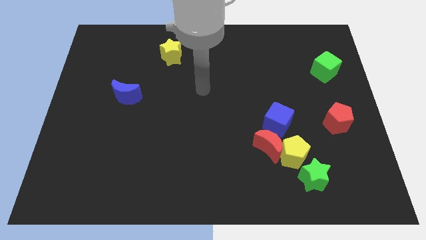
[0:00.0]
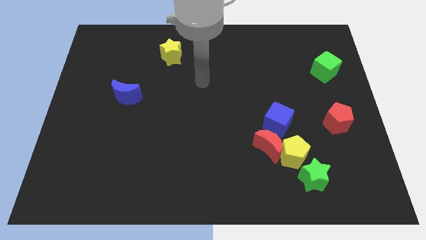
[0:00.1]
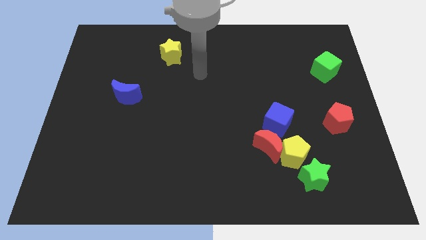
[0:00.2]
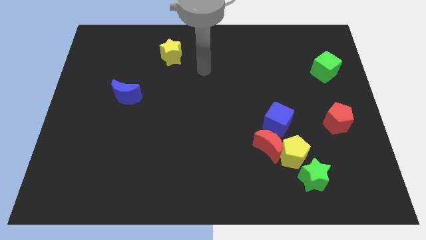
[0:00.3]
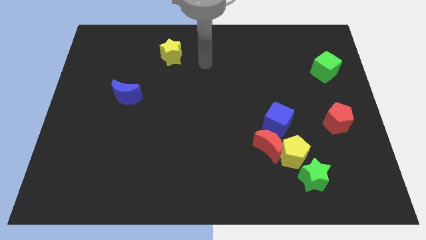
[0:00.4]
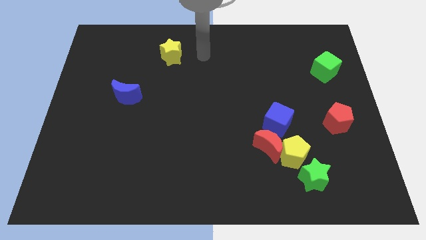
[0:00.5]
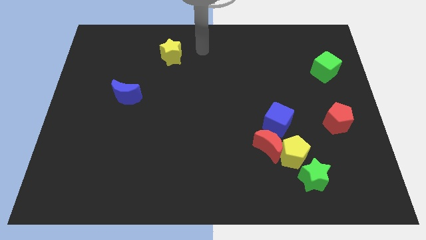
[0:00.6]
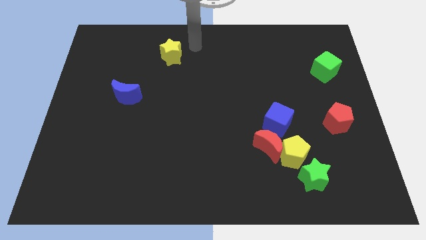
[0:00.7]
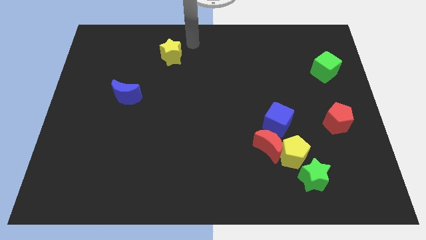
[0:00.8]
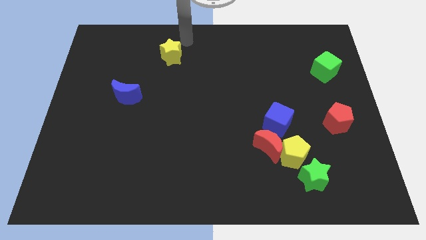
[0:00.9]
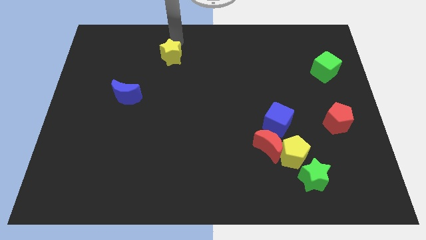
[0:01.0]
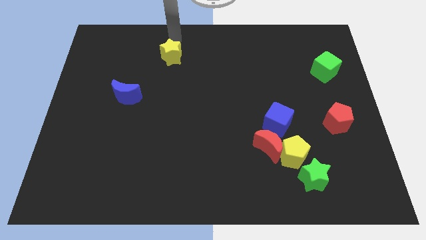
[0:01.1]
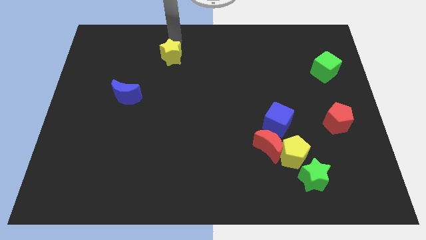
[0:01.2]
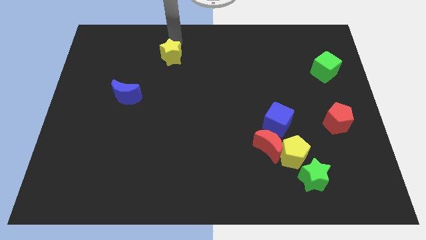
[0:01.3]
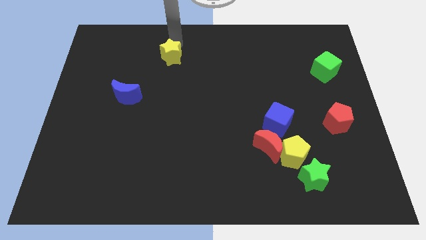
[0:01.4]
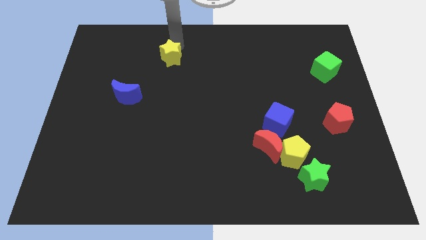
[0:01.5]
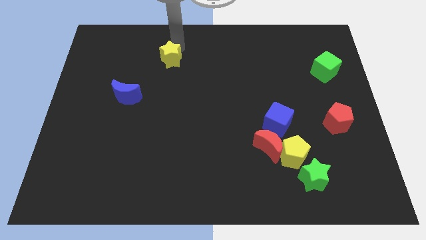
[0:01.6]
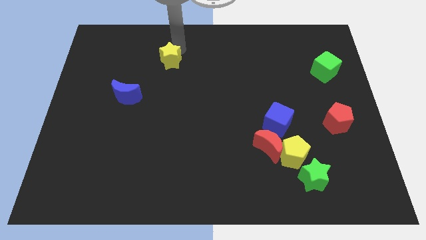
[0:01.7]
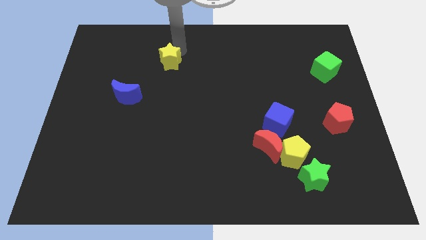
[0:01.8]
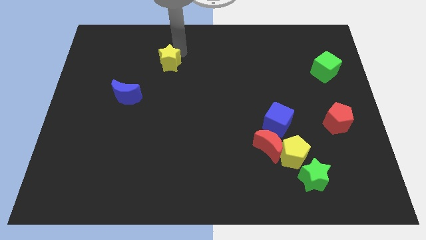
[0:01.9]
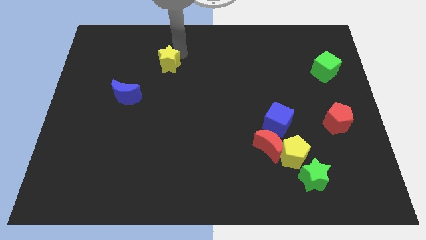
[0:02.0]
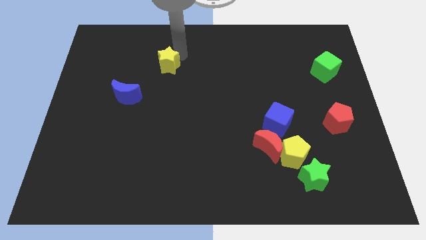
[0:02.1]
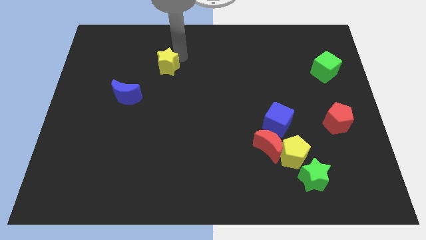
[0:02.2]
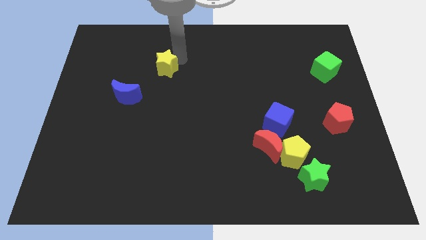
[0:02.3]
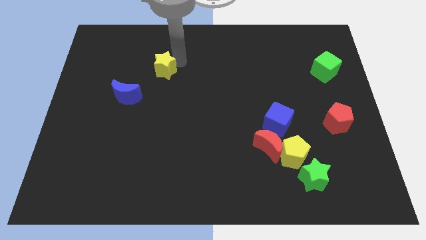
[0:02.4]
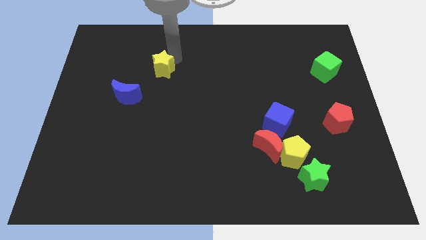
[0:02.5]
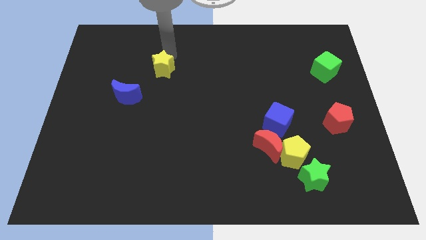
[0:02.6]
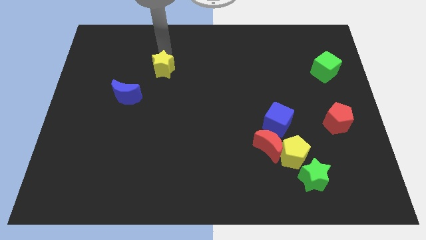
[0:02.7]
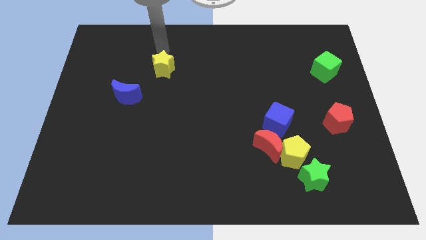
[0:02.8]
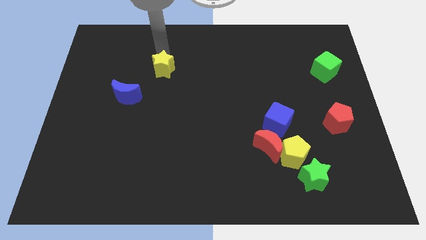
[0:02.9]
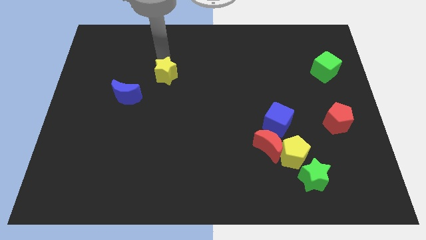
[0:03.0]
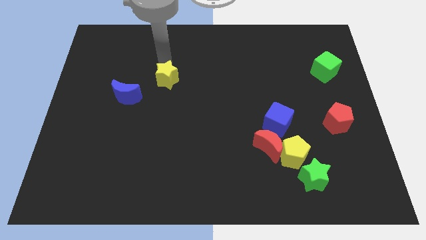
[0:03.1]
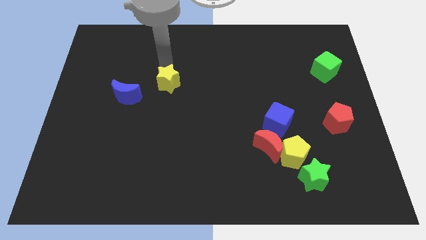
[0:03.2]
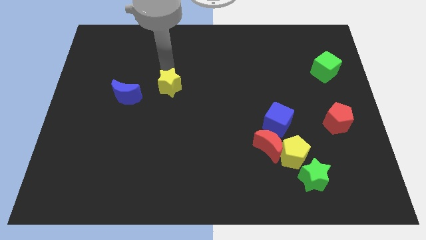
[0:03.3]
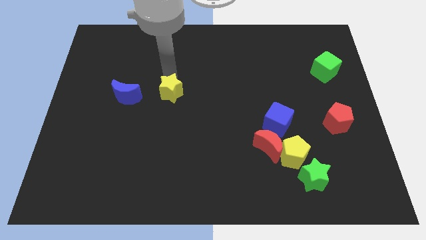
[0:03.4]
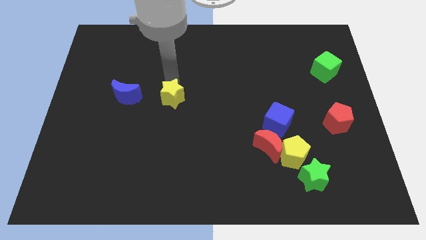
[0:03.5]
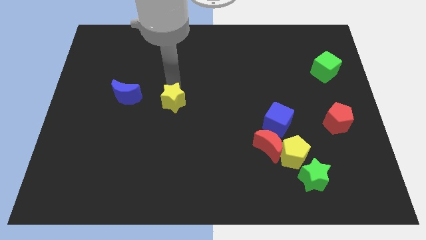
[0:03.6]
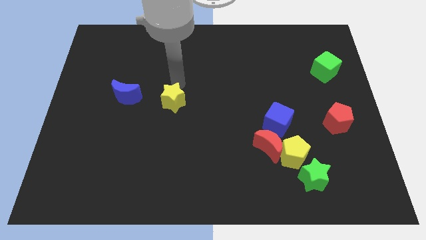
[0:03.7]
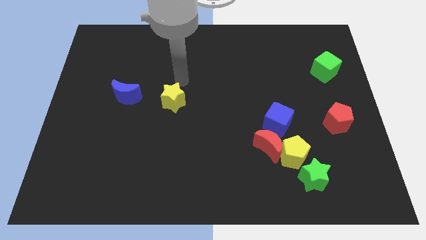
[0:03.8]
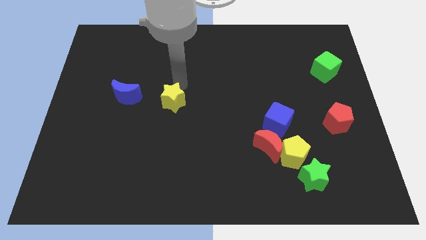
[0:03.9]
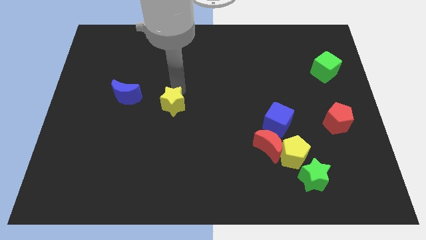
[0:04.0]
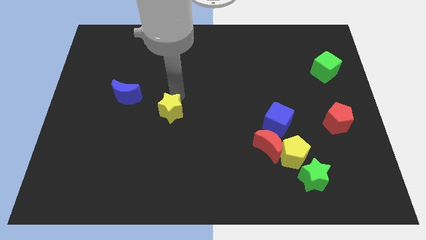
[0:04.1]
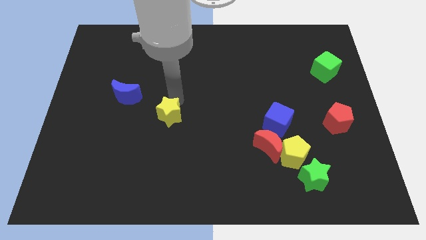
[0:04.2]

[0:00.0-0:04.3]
move the yellow star downwards

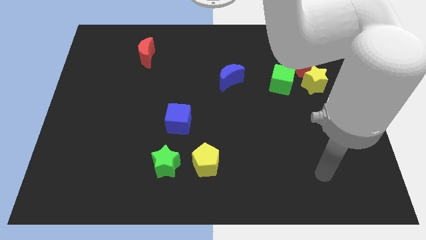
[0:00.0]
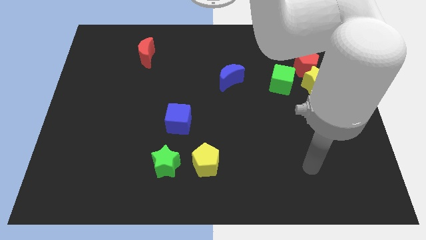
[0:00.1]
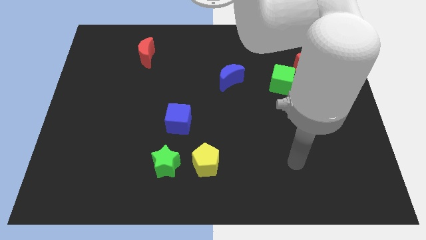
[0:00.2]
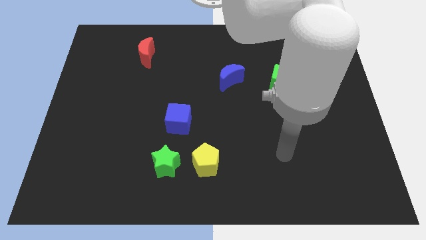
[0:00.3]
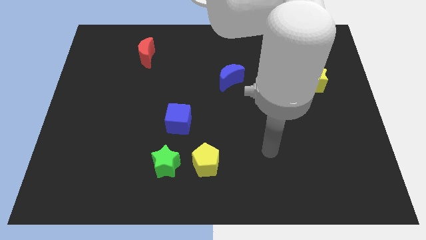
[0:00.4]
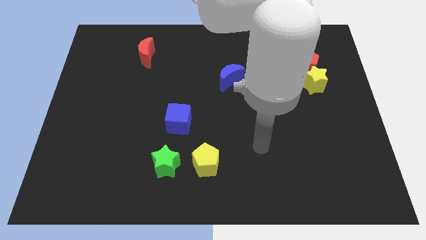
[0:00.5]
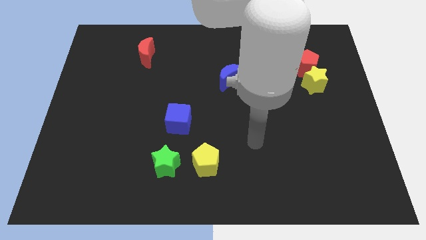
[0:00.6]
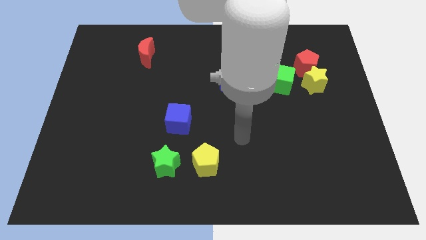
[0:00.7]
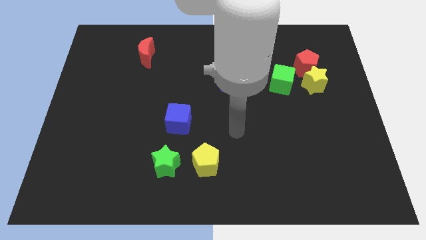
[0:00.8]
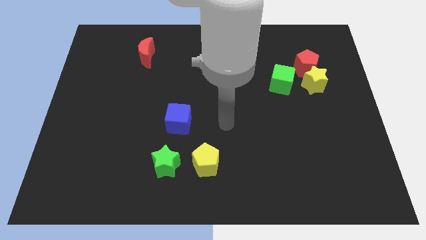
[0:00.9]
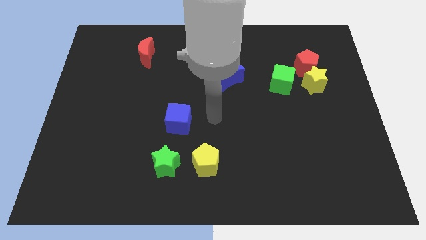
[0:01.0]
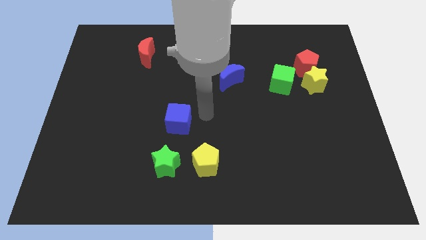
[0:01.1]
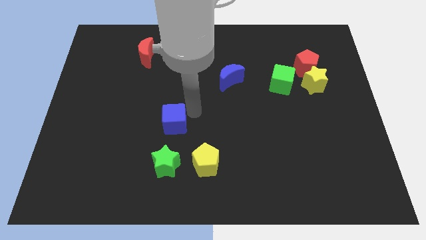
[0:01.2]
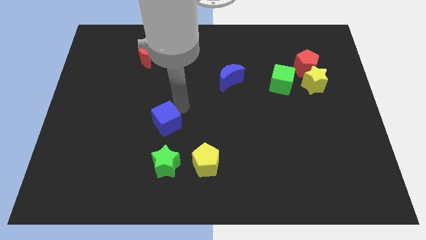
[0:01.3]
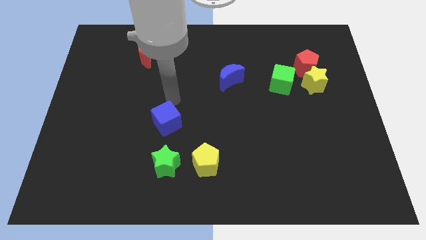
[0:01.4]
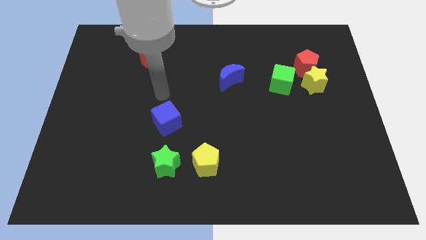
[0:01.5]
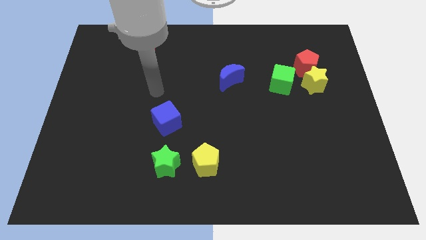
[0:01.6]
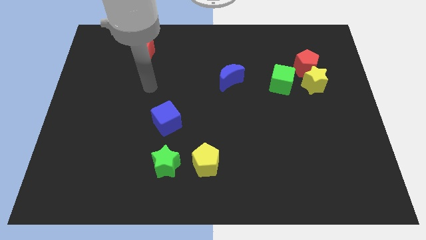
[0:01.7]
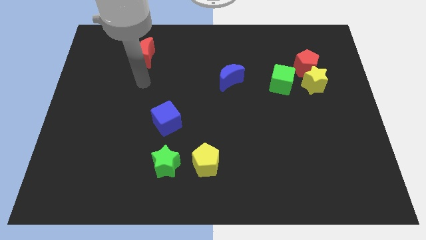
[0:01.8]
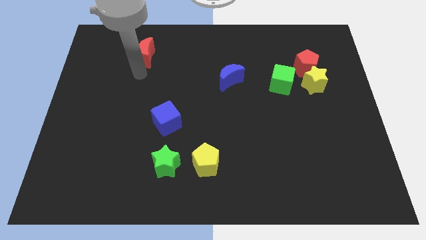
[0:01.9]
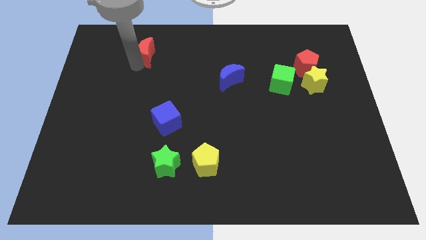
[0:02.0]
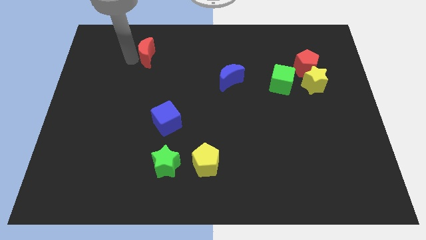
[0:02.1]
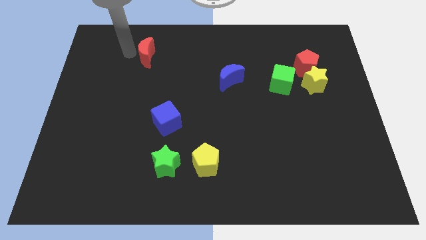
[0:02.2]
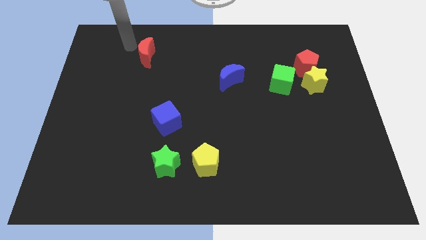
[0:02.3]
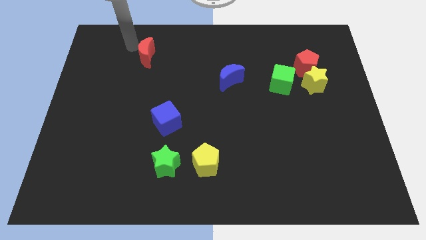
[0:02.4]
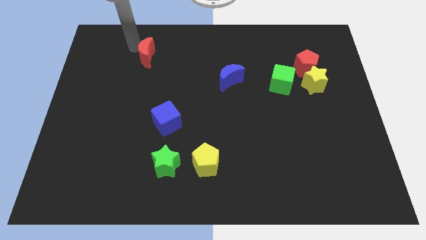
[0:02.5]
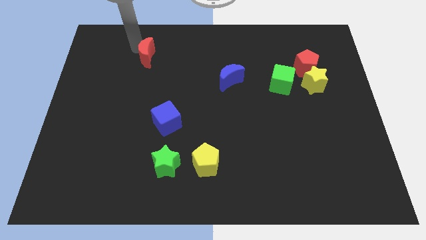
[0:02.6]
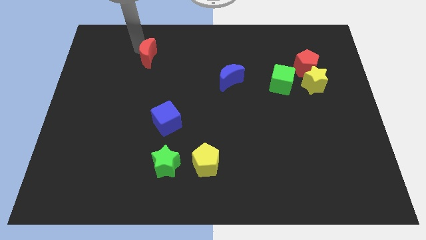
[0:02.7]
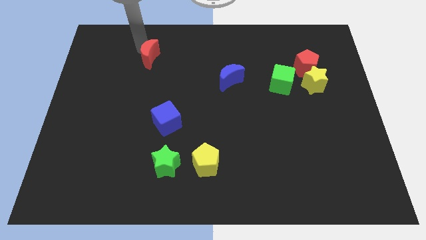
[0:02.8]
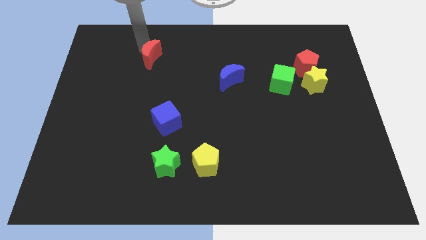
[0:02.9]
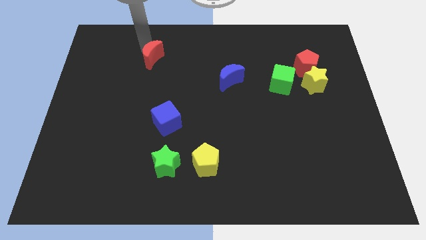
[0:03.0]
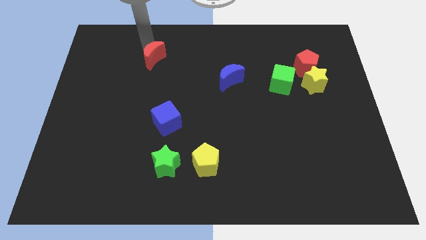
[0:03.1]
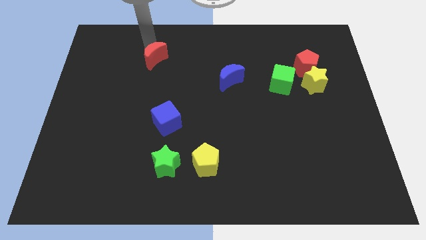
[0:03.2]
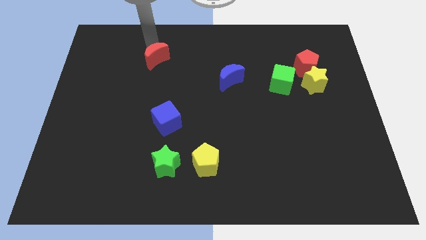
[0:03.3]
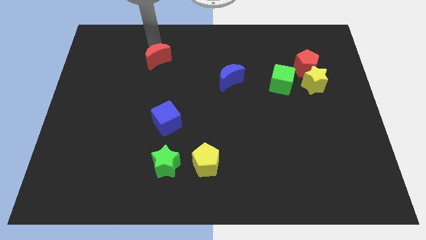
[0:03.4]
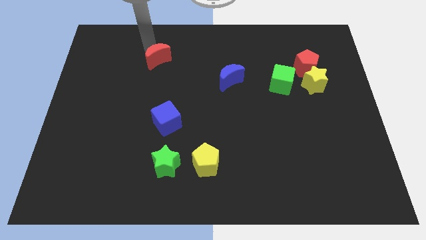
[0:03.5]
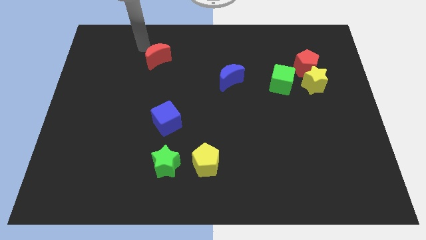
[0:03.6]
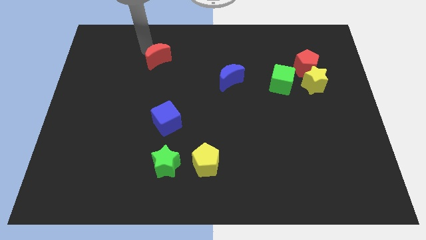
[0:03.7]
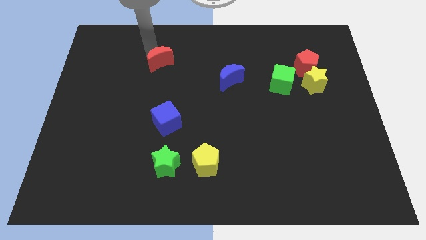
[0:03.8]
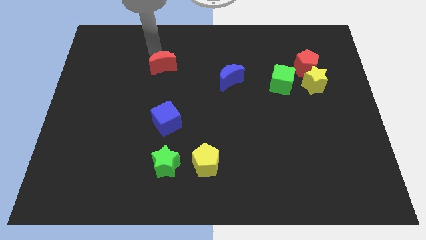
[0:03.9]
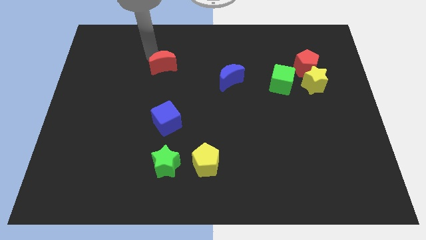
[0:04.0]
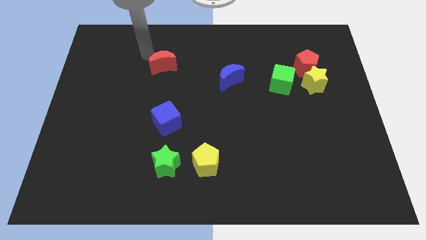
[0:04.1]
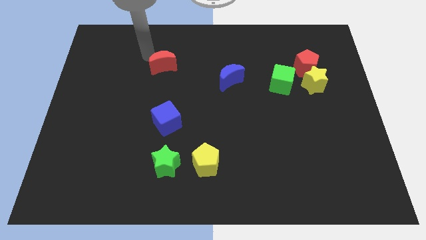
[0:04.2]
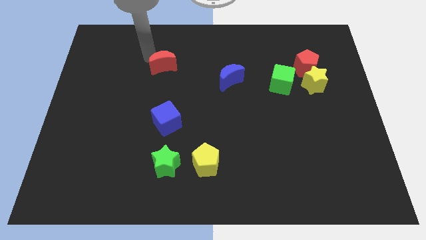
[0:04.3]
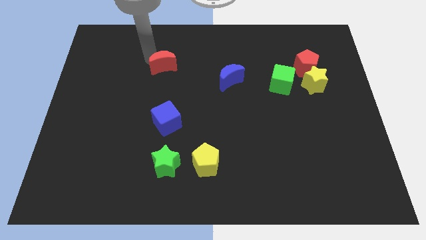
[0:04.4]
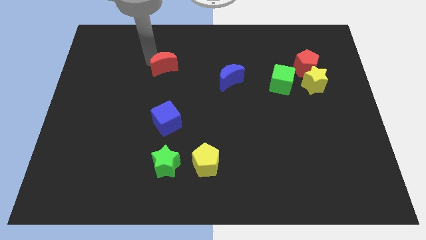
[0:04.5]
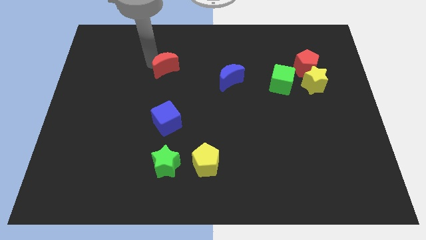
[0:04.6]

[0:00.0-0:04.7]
push the red moon downwards and to the right slightly
